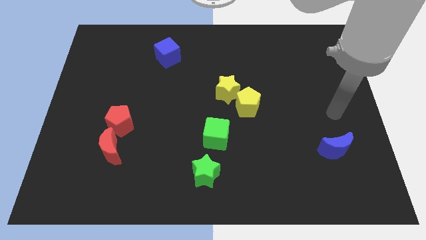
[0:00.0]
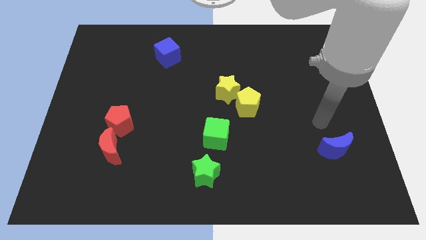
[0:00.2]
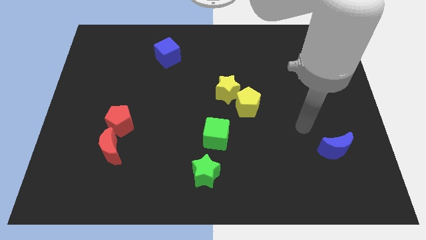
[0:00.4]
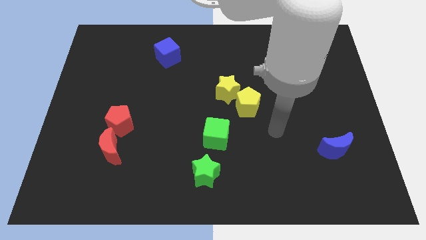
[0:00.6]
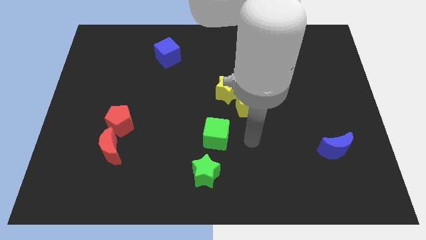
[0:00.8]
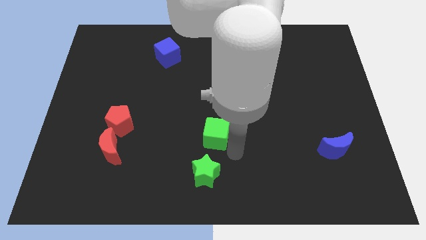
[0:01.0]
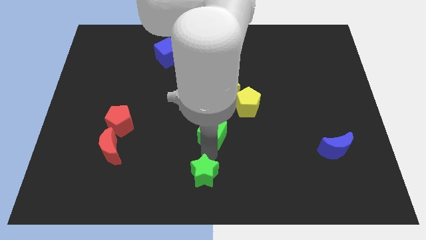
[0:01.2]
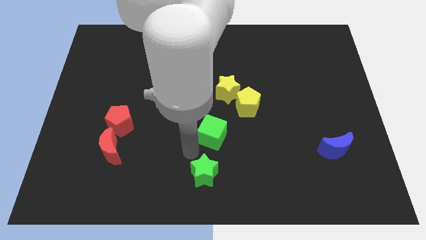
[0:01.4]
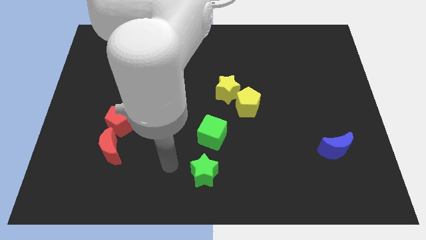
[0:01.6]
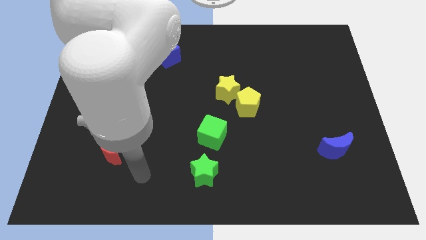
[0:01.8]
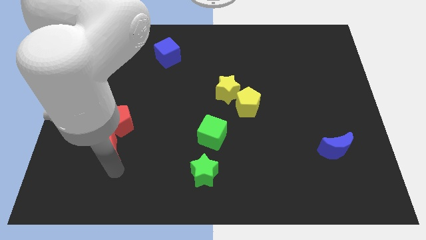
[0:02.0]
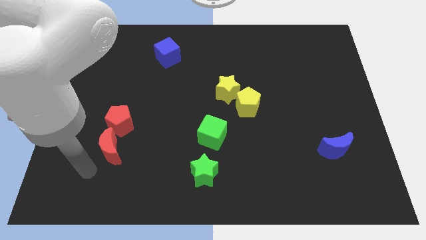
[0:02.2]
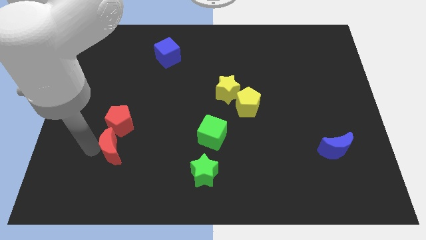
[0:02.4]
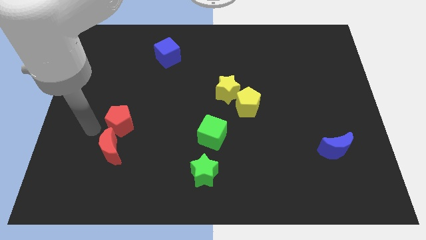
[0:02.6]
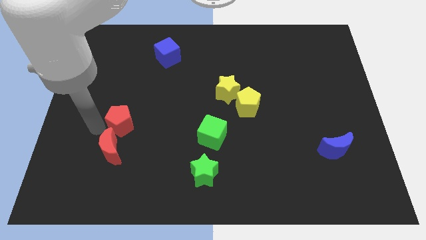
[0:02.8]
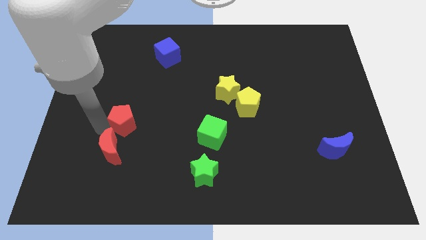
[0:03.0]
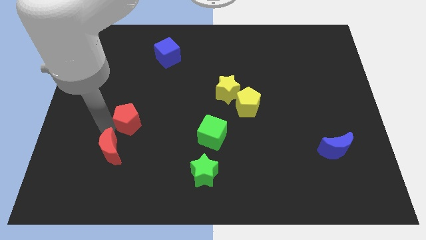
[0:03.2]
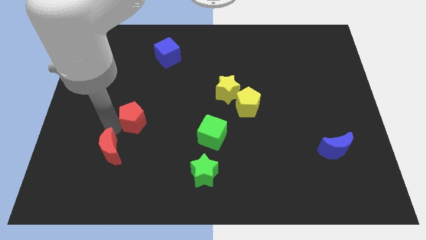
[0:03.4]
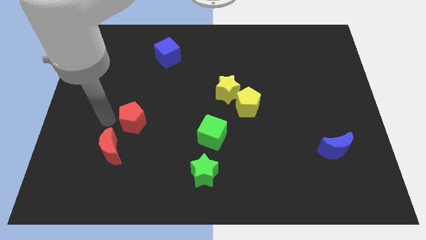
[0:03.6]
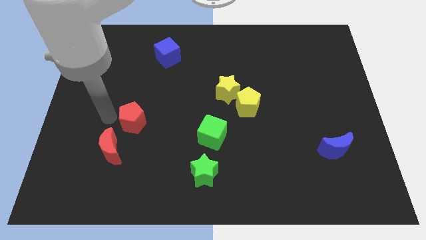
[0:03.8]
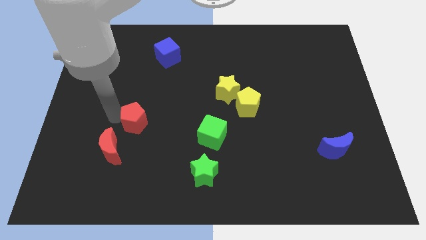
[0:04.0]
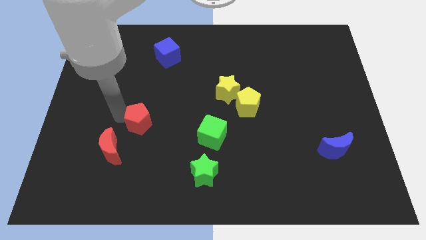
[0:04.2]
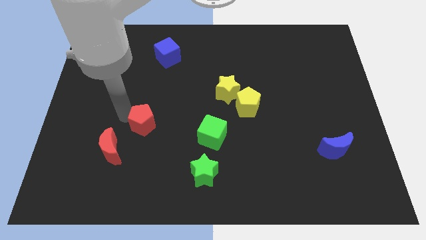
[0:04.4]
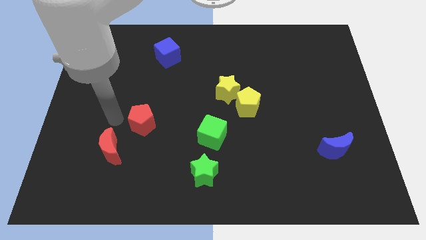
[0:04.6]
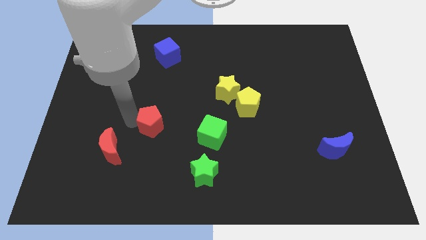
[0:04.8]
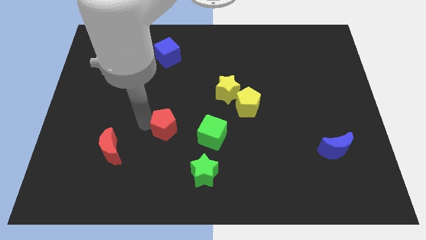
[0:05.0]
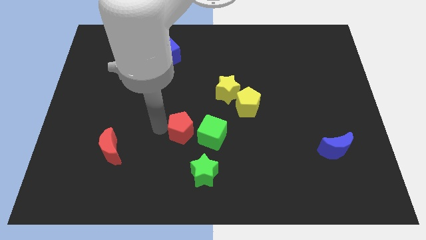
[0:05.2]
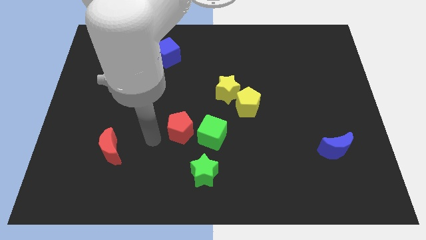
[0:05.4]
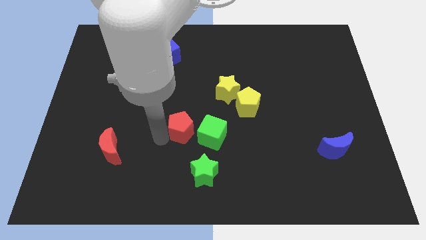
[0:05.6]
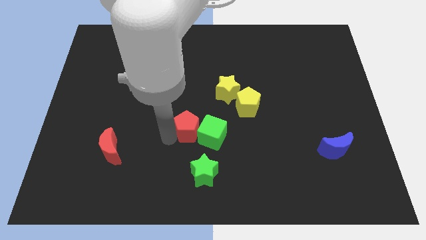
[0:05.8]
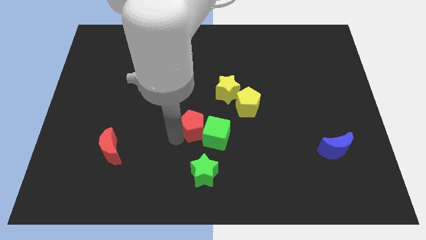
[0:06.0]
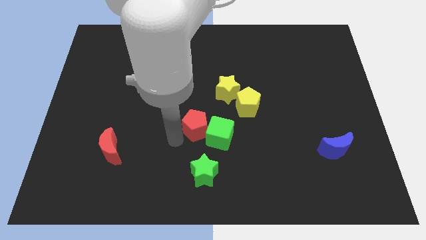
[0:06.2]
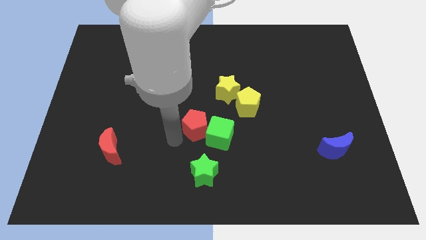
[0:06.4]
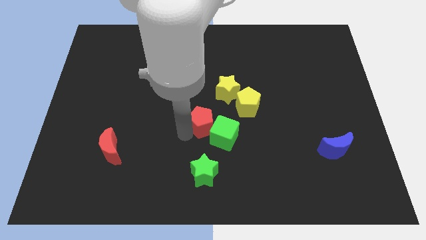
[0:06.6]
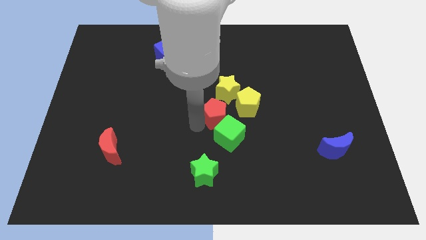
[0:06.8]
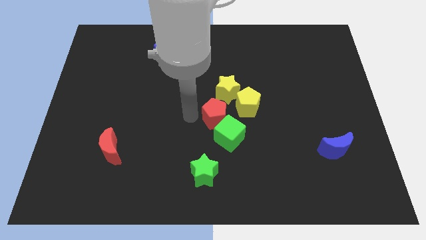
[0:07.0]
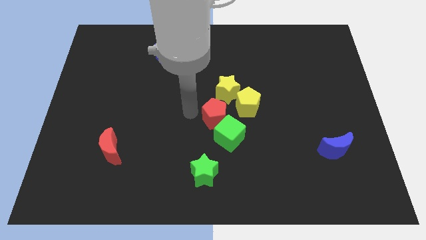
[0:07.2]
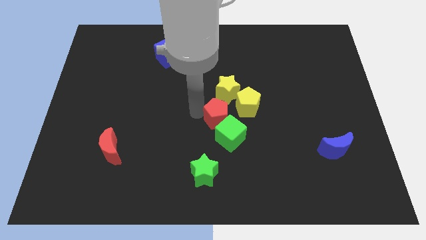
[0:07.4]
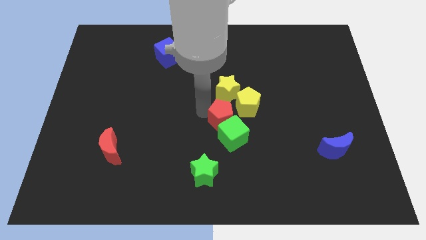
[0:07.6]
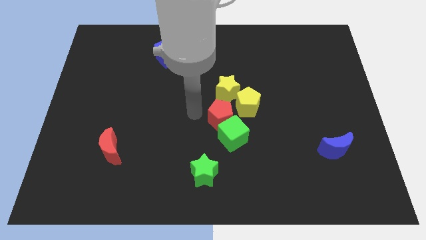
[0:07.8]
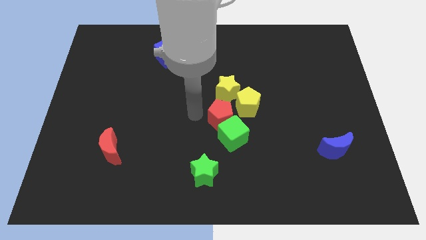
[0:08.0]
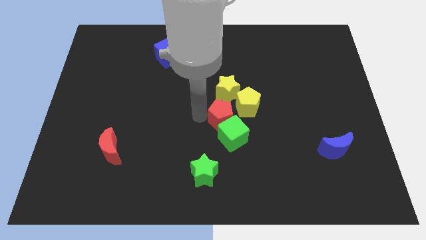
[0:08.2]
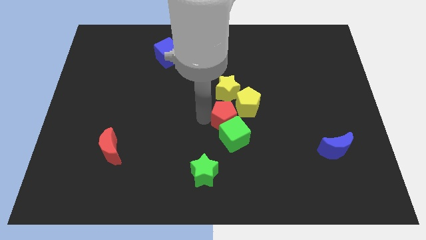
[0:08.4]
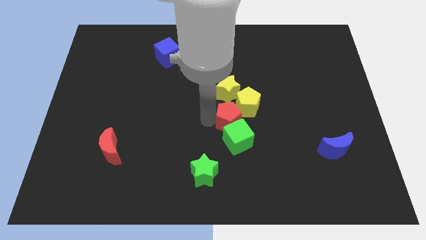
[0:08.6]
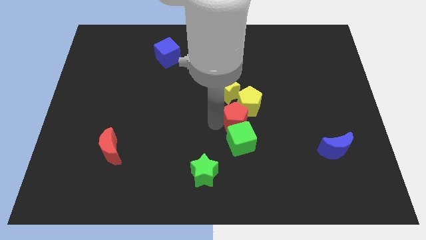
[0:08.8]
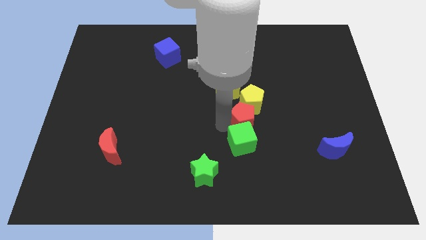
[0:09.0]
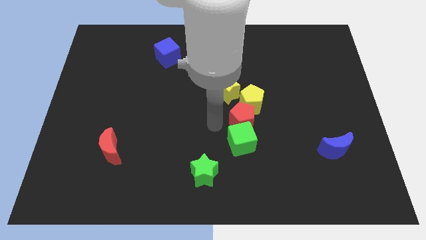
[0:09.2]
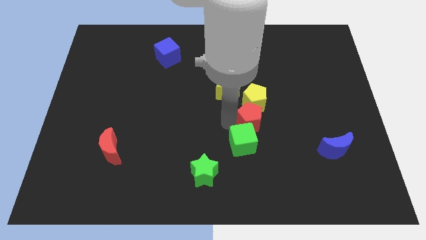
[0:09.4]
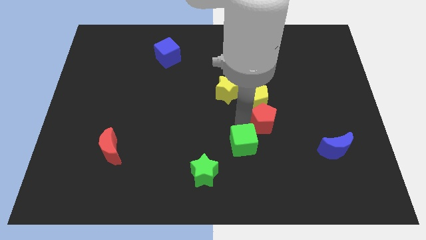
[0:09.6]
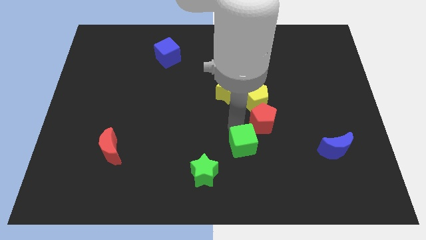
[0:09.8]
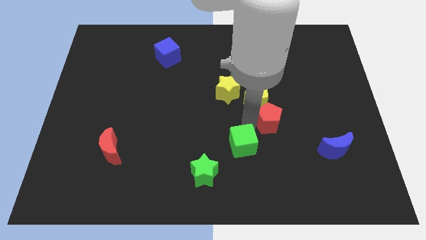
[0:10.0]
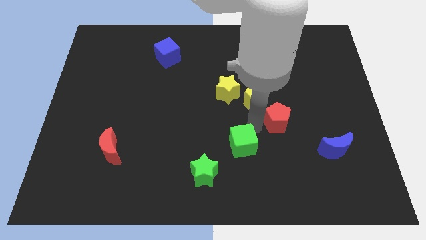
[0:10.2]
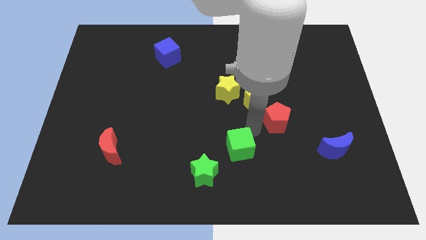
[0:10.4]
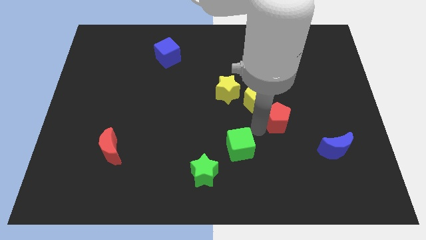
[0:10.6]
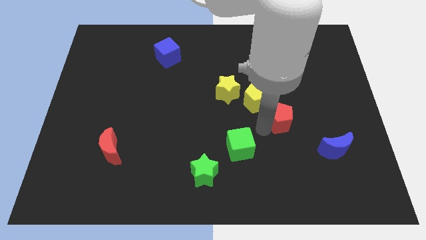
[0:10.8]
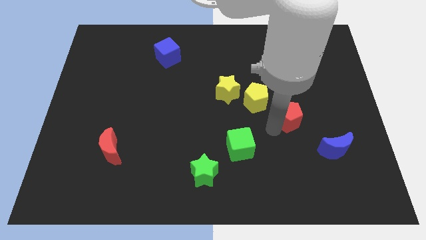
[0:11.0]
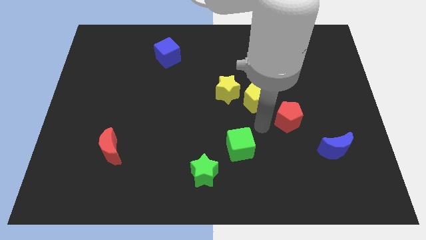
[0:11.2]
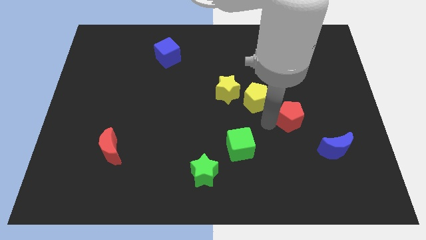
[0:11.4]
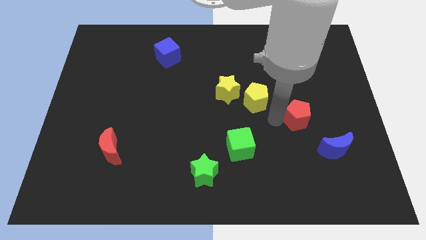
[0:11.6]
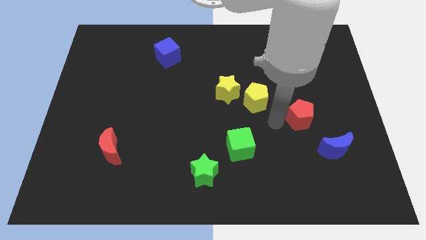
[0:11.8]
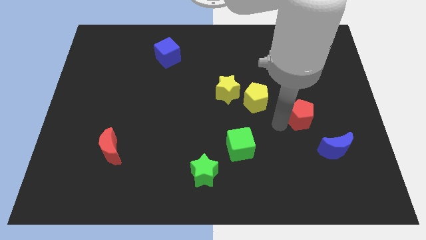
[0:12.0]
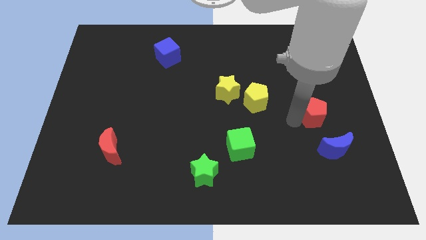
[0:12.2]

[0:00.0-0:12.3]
move the red pentagon to the top side of the blue moon

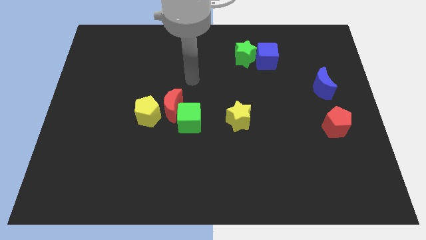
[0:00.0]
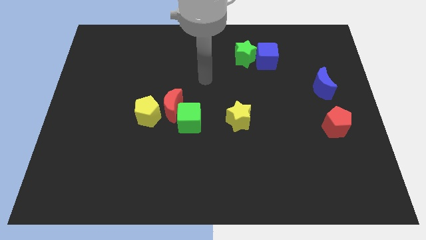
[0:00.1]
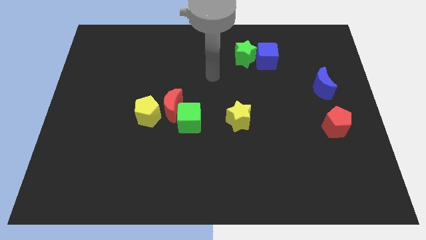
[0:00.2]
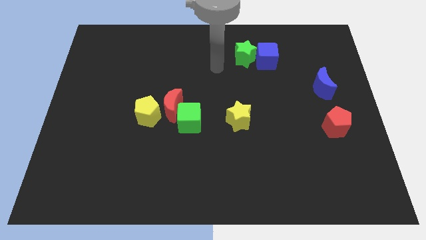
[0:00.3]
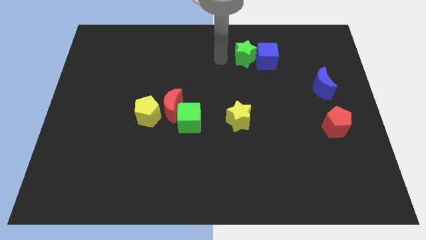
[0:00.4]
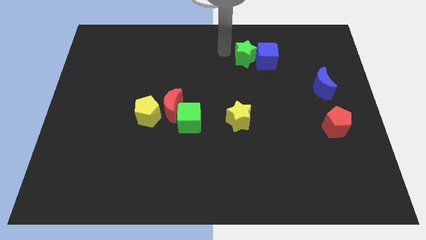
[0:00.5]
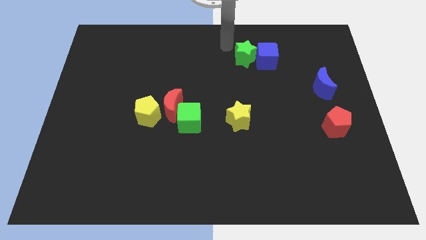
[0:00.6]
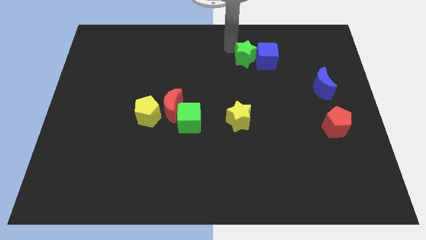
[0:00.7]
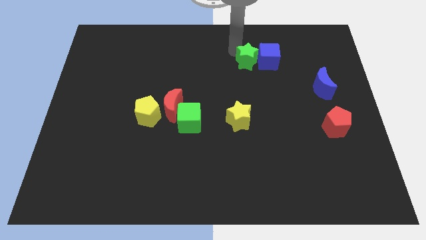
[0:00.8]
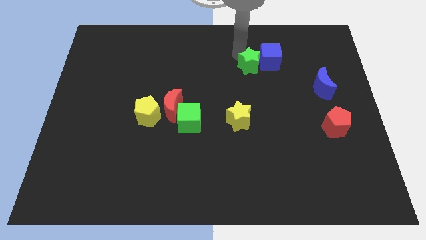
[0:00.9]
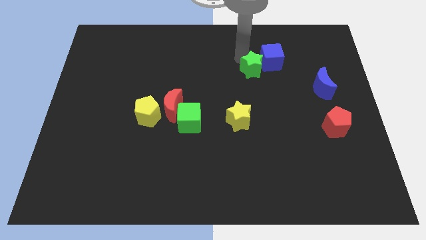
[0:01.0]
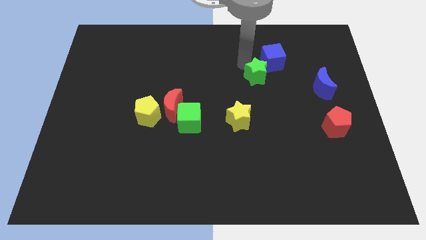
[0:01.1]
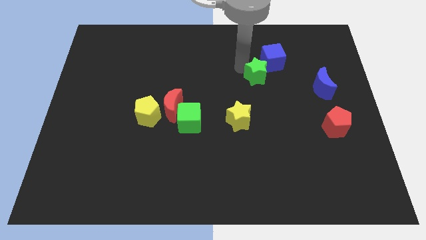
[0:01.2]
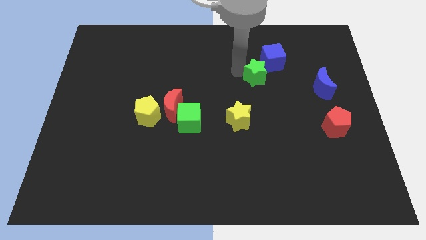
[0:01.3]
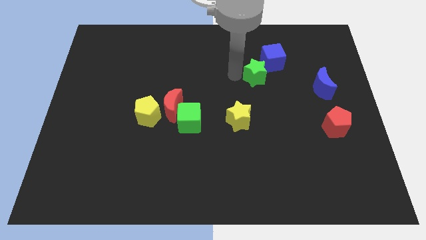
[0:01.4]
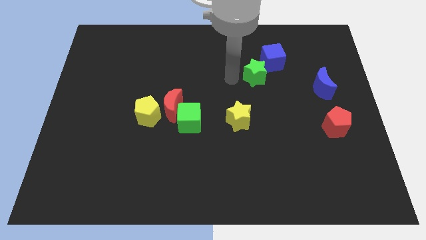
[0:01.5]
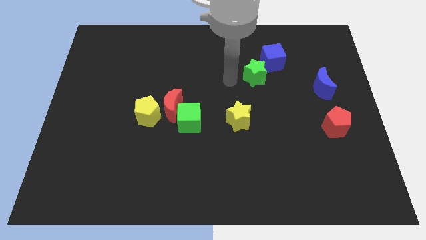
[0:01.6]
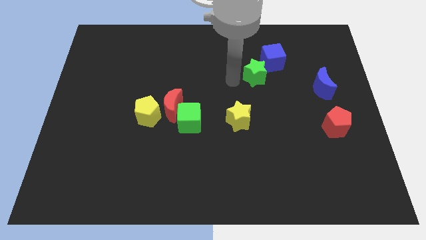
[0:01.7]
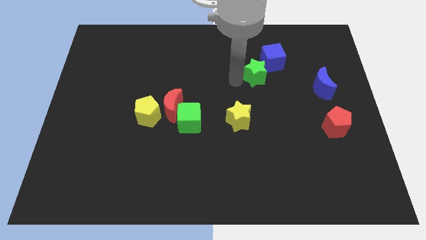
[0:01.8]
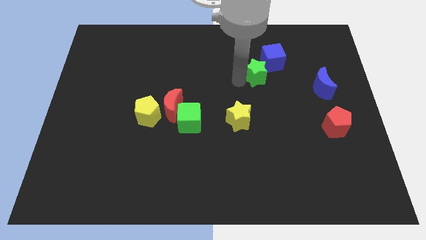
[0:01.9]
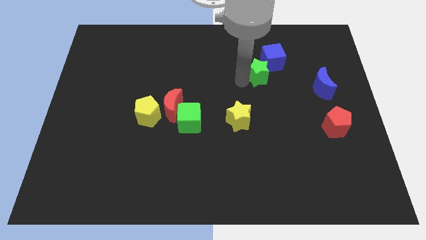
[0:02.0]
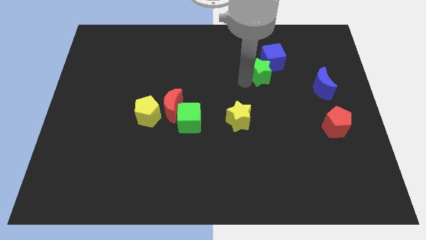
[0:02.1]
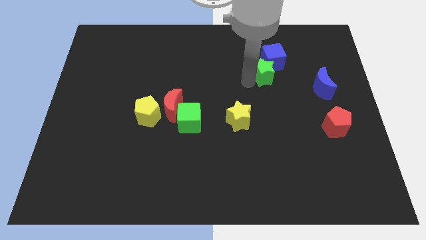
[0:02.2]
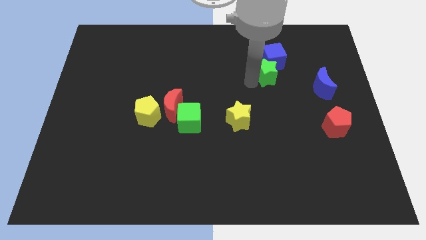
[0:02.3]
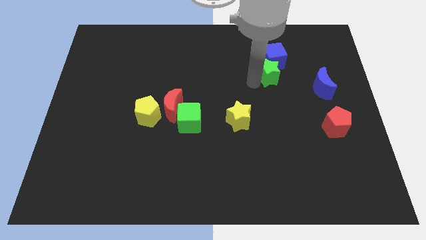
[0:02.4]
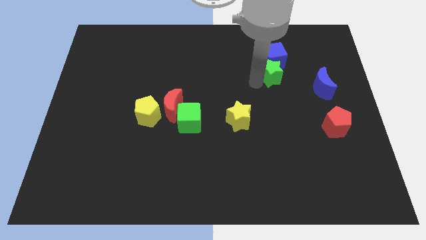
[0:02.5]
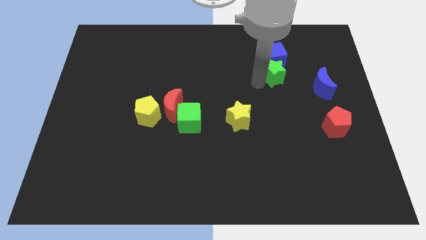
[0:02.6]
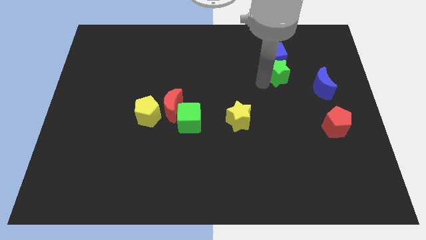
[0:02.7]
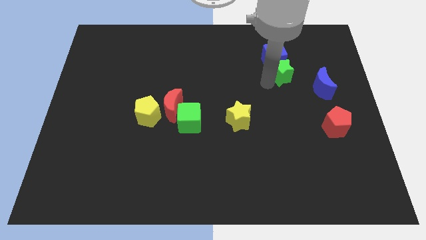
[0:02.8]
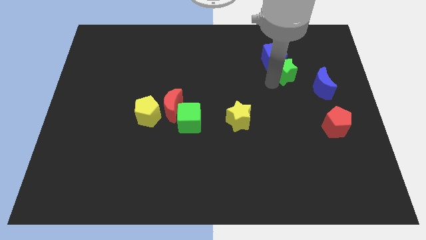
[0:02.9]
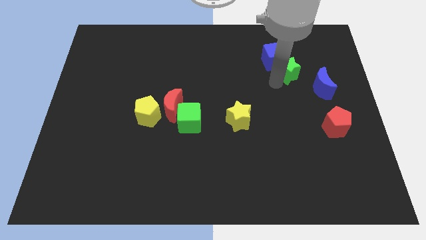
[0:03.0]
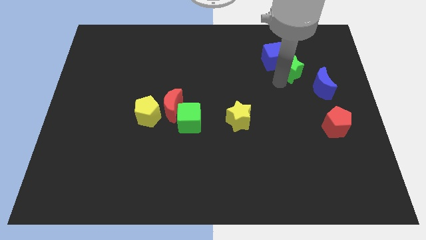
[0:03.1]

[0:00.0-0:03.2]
put the green star right of the blue cube
